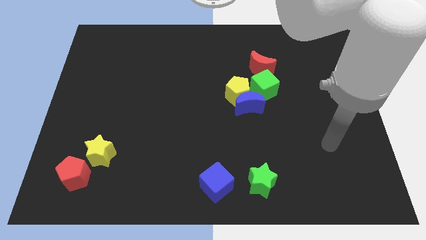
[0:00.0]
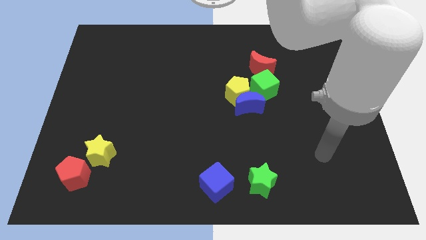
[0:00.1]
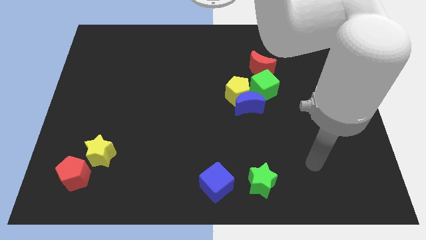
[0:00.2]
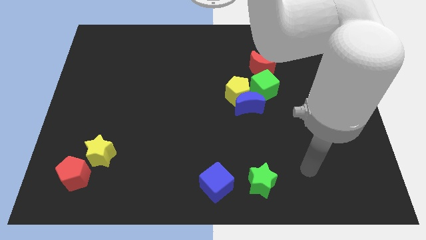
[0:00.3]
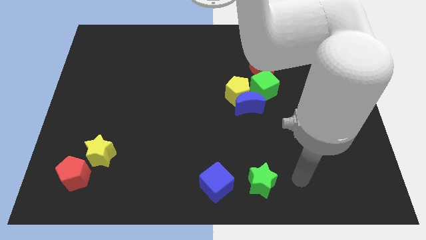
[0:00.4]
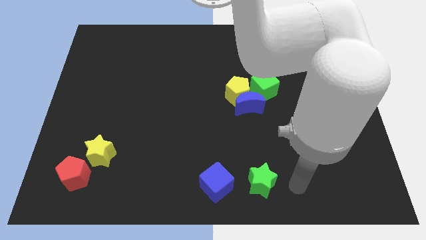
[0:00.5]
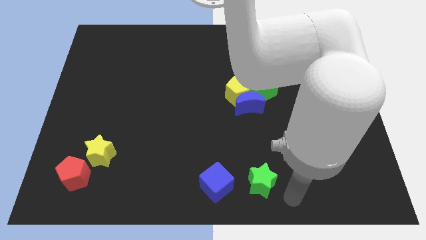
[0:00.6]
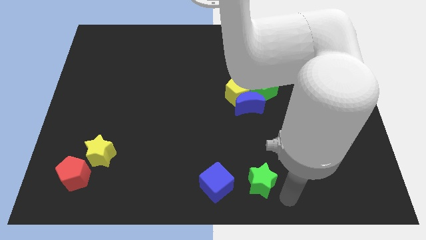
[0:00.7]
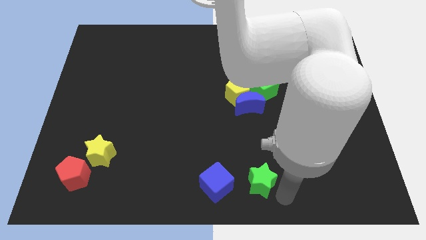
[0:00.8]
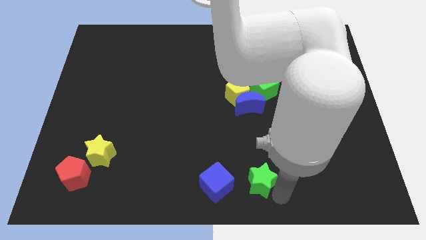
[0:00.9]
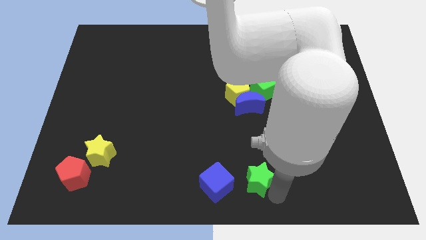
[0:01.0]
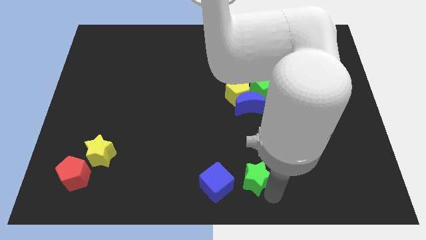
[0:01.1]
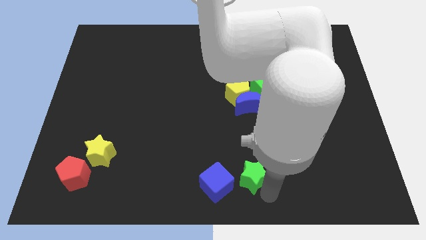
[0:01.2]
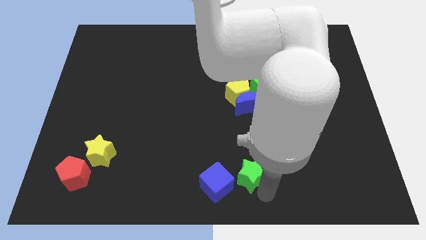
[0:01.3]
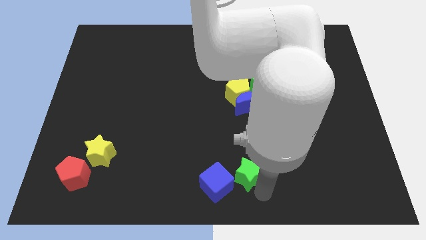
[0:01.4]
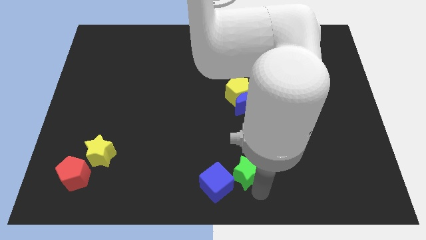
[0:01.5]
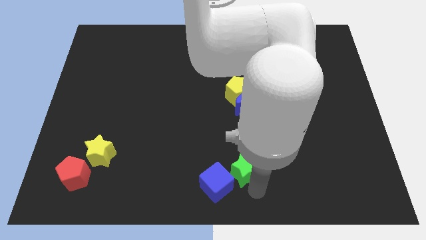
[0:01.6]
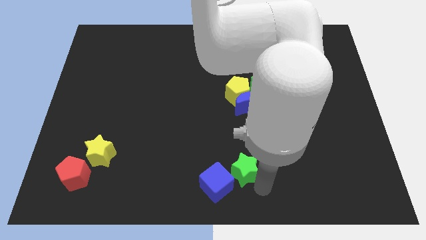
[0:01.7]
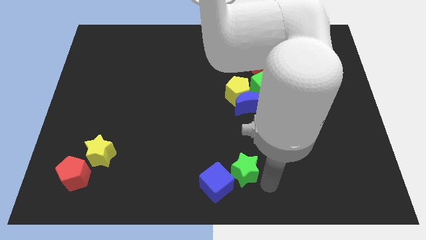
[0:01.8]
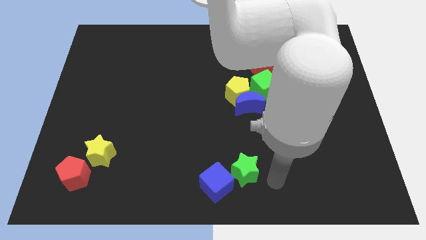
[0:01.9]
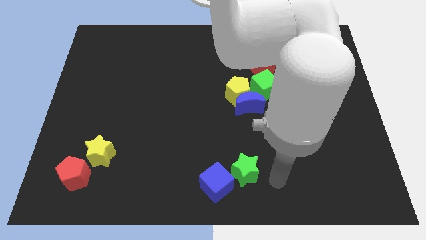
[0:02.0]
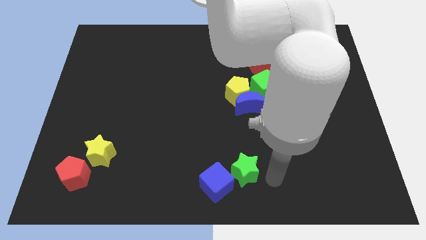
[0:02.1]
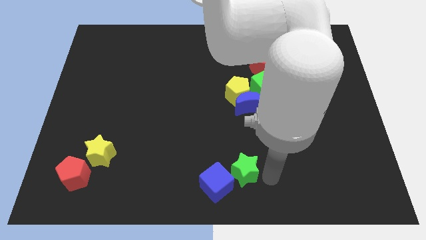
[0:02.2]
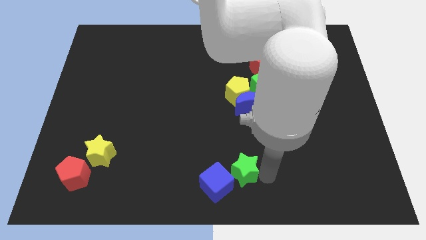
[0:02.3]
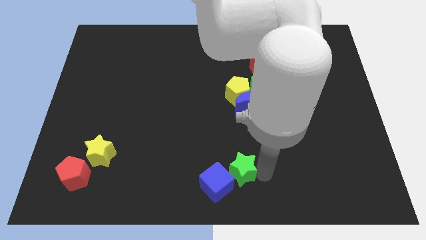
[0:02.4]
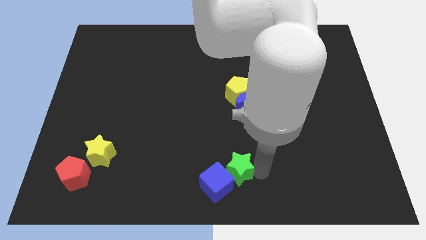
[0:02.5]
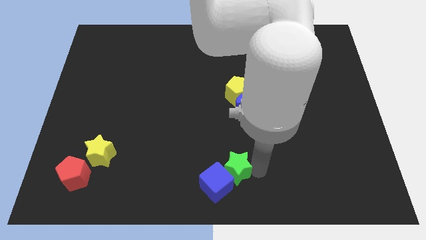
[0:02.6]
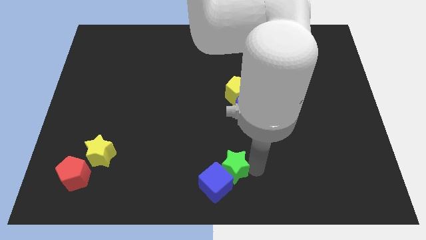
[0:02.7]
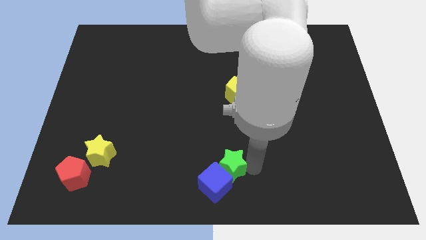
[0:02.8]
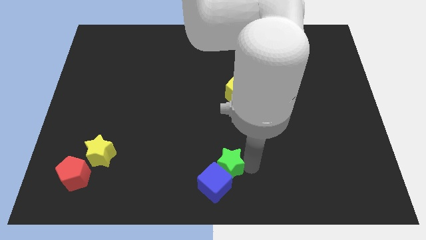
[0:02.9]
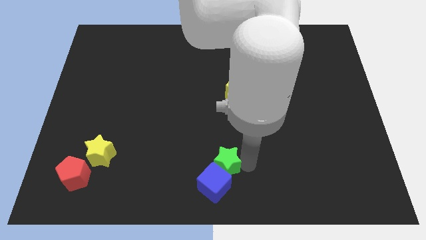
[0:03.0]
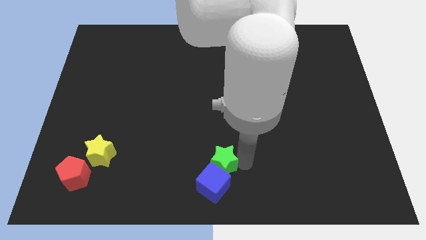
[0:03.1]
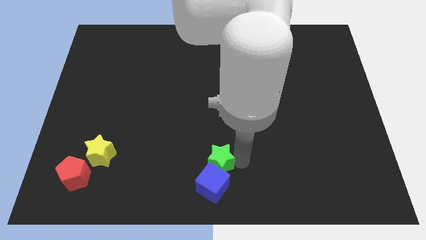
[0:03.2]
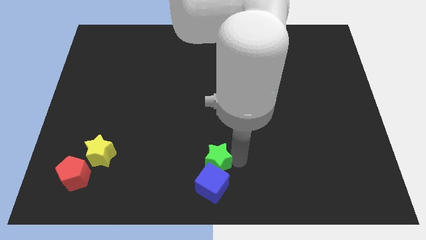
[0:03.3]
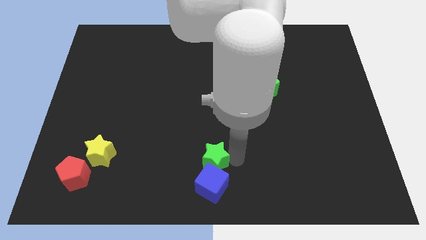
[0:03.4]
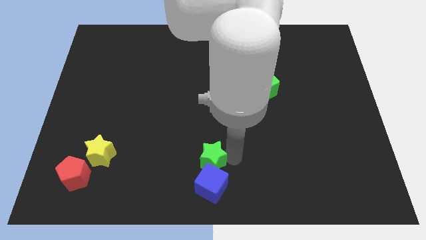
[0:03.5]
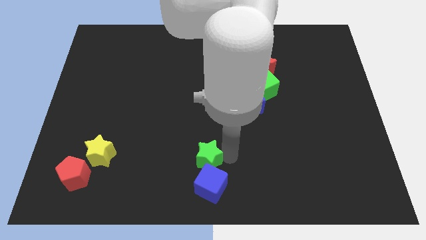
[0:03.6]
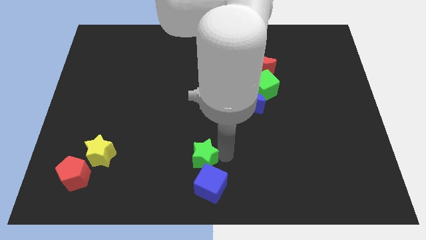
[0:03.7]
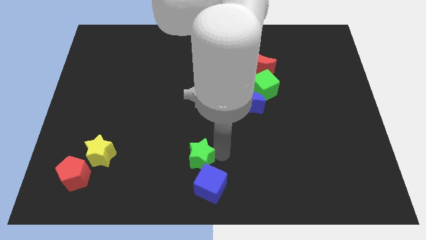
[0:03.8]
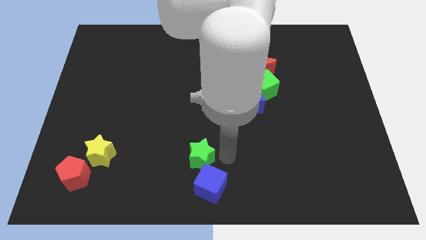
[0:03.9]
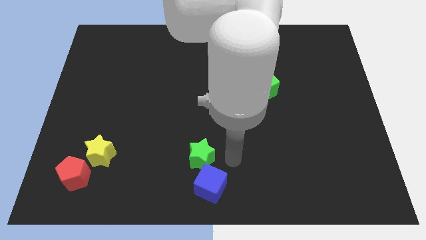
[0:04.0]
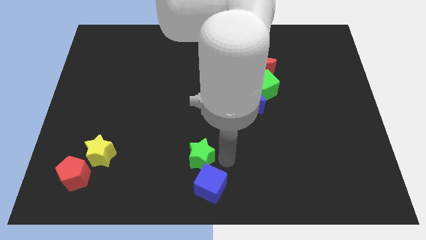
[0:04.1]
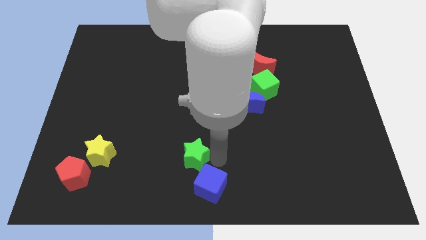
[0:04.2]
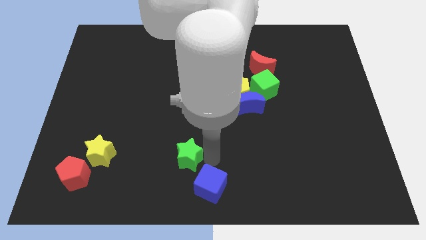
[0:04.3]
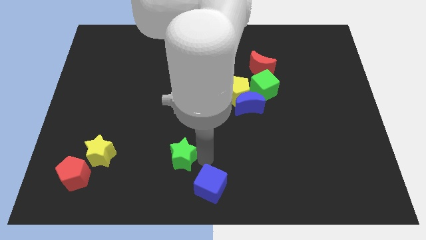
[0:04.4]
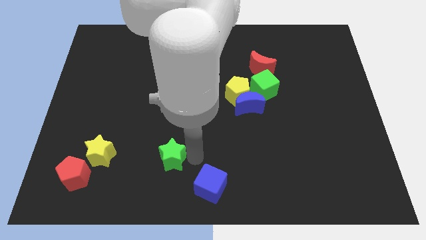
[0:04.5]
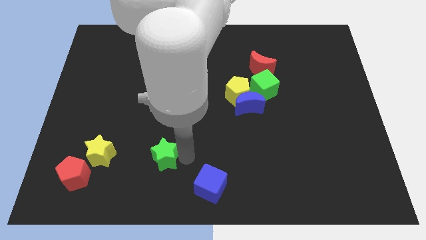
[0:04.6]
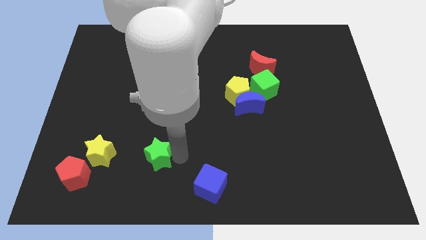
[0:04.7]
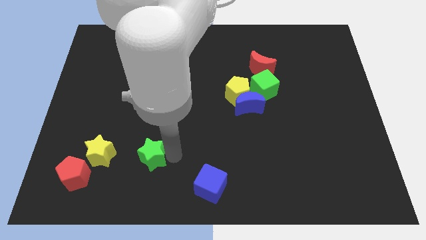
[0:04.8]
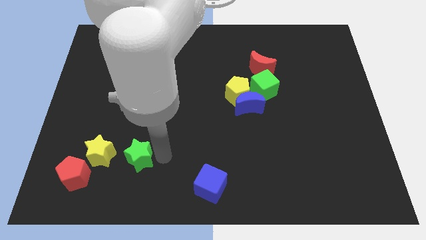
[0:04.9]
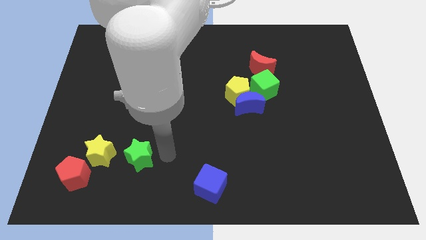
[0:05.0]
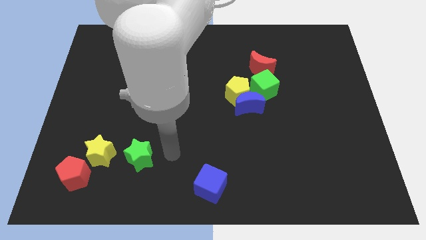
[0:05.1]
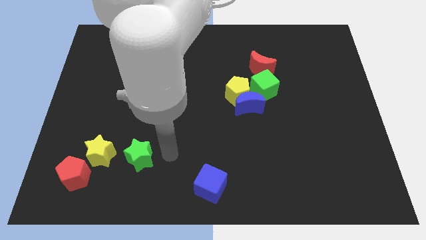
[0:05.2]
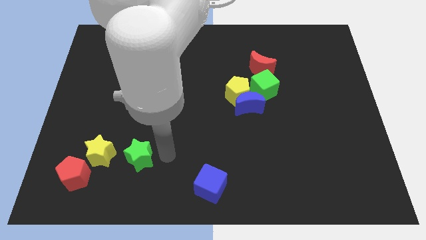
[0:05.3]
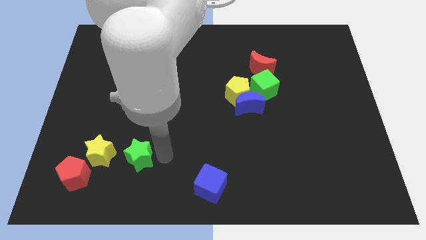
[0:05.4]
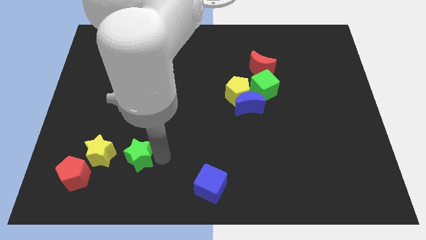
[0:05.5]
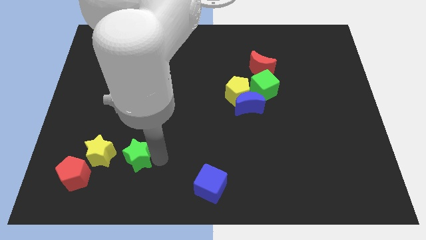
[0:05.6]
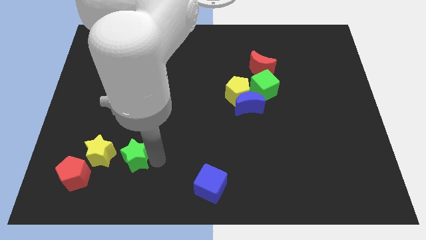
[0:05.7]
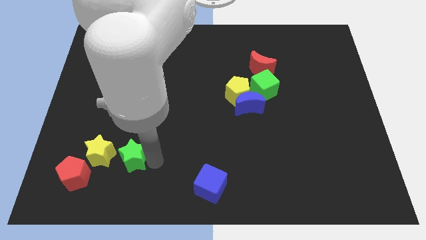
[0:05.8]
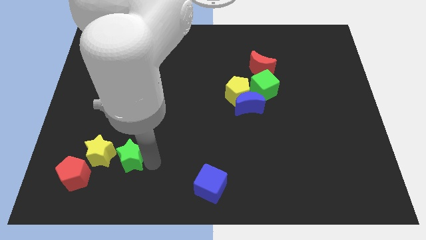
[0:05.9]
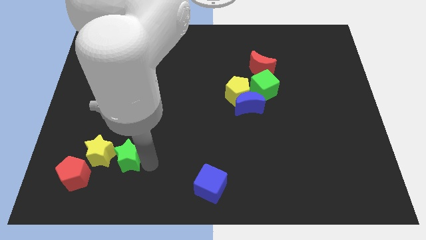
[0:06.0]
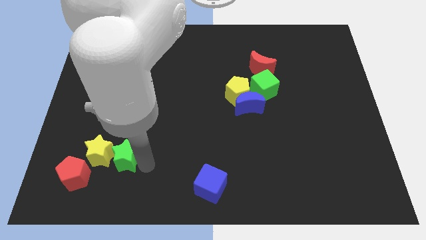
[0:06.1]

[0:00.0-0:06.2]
put the green star next to the yellow star

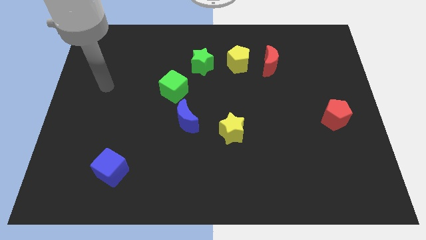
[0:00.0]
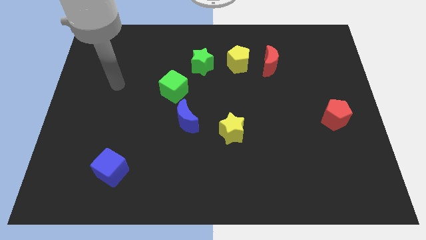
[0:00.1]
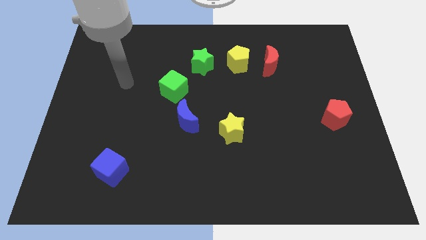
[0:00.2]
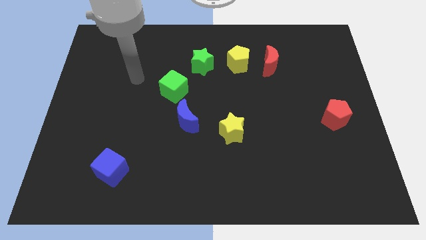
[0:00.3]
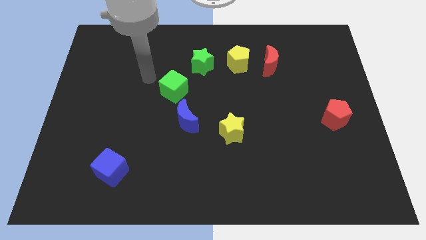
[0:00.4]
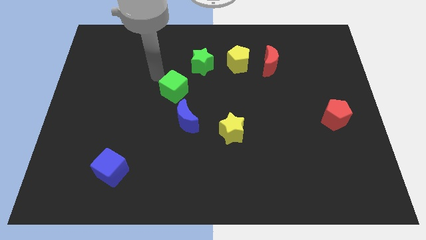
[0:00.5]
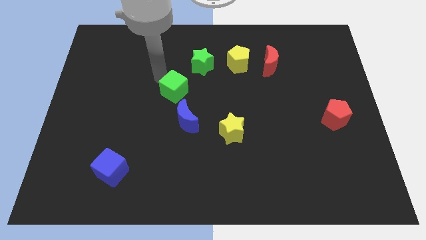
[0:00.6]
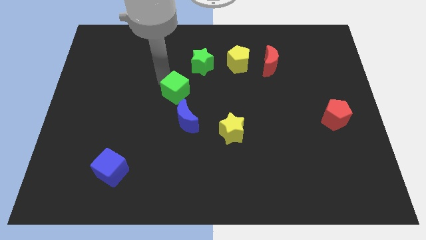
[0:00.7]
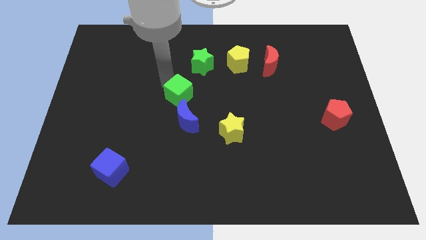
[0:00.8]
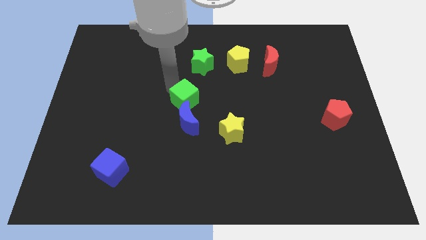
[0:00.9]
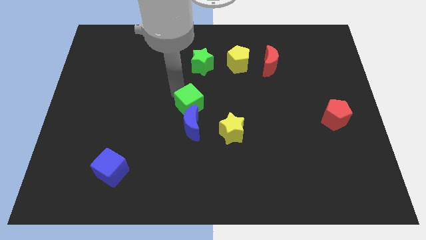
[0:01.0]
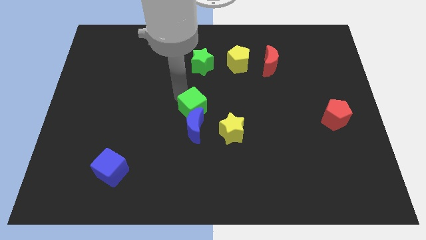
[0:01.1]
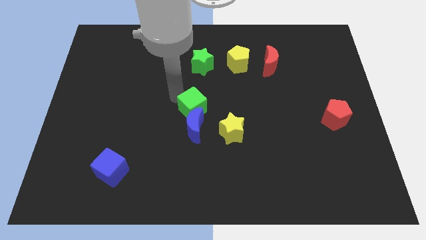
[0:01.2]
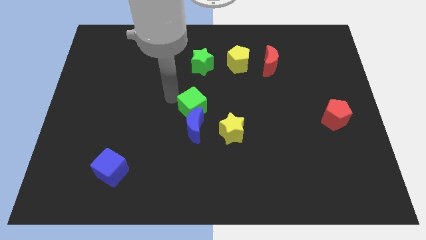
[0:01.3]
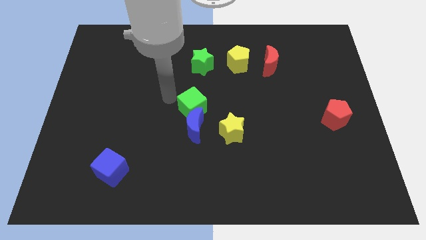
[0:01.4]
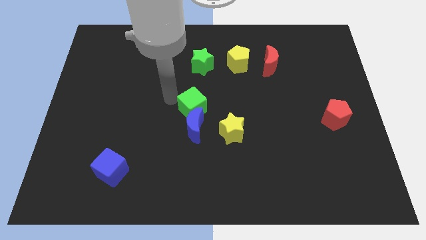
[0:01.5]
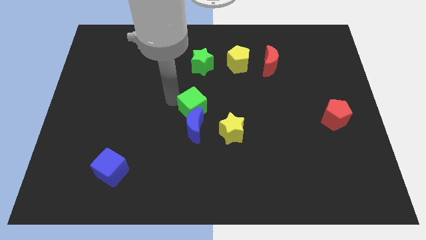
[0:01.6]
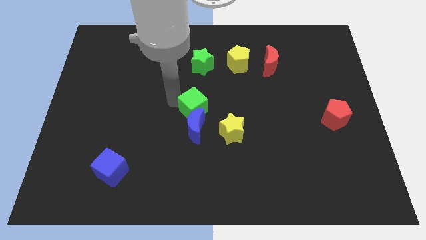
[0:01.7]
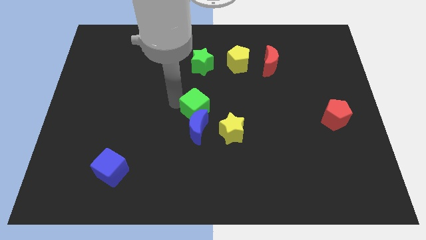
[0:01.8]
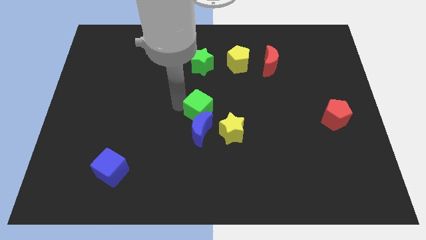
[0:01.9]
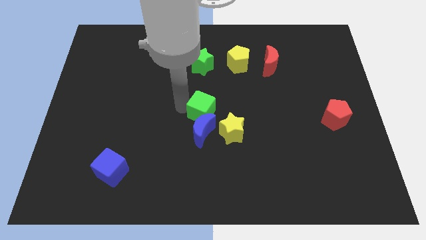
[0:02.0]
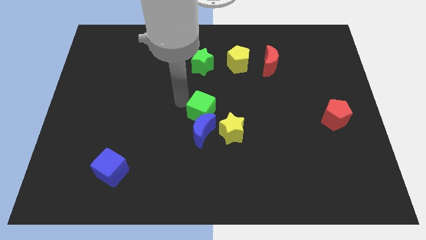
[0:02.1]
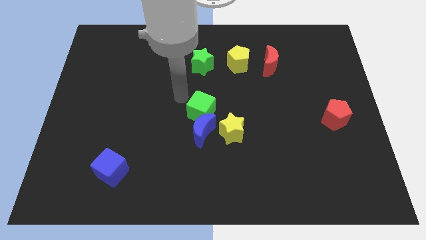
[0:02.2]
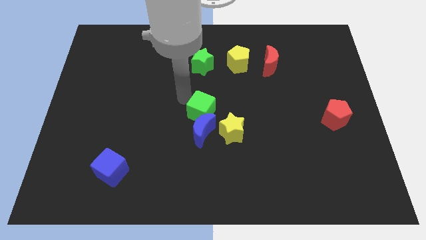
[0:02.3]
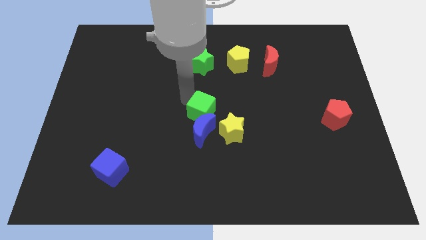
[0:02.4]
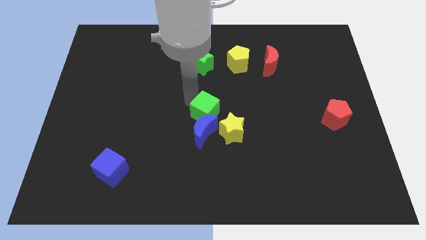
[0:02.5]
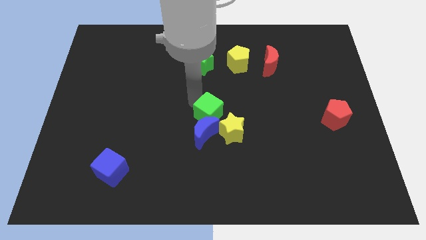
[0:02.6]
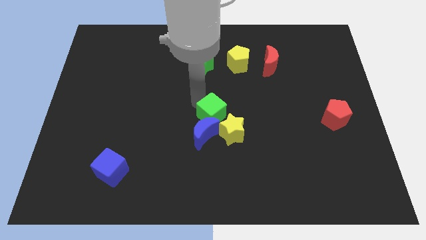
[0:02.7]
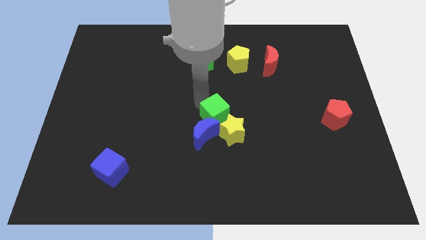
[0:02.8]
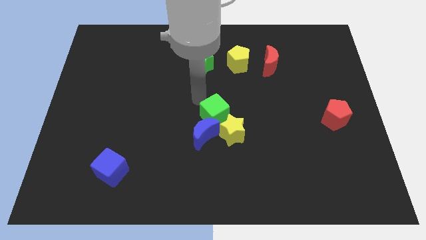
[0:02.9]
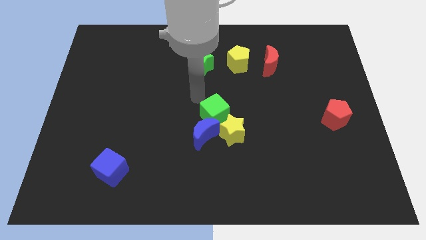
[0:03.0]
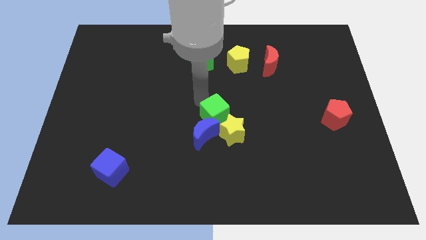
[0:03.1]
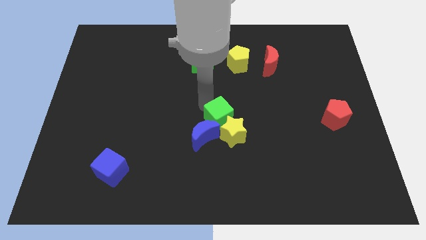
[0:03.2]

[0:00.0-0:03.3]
put the green cube to the yellow star
